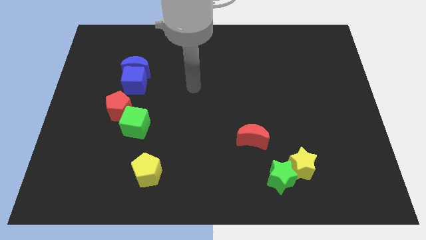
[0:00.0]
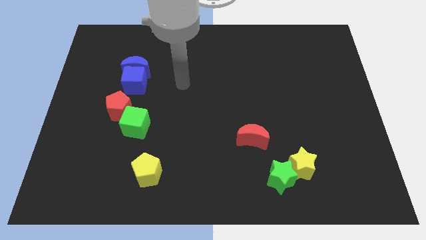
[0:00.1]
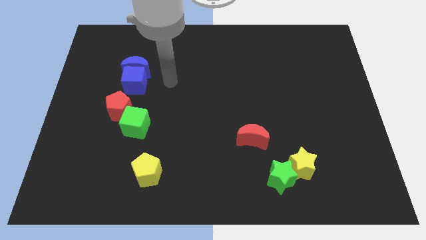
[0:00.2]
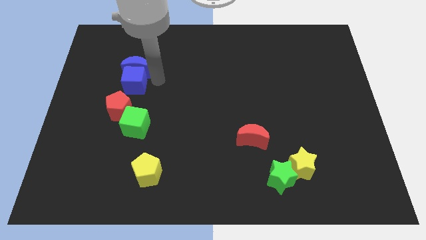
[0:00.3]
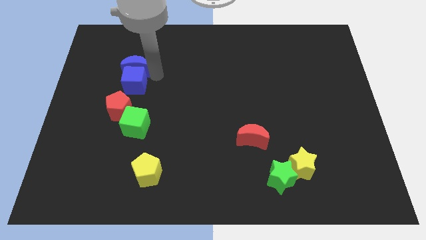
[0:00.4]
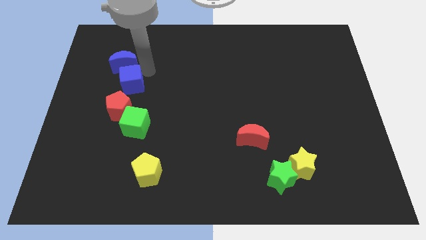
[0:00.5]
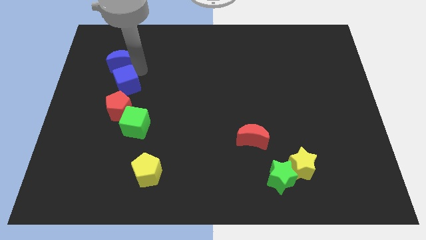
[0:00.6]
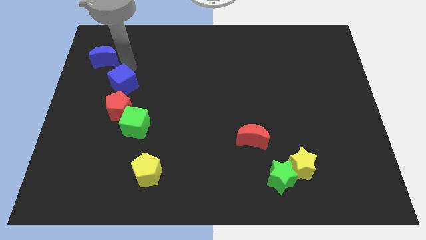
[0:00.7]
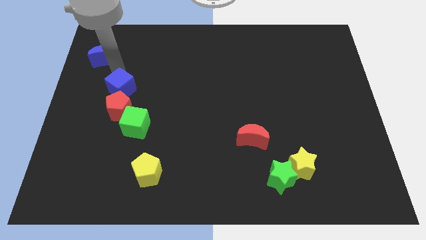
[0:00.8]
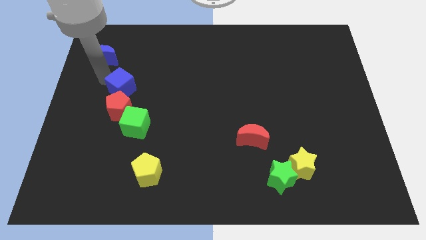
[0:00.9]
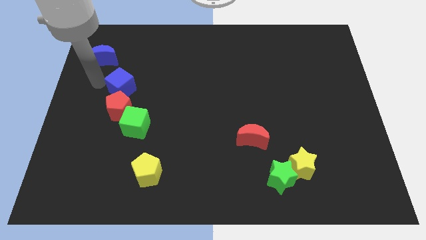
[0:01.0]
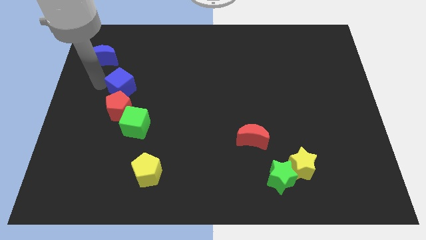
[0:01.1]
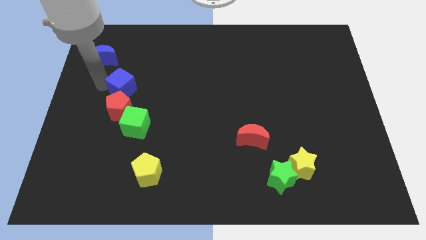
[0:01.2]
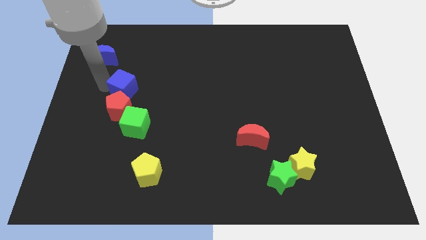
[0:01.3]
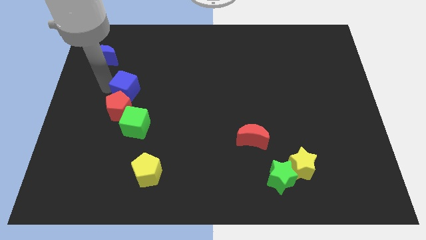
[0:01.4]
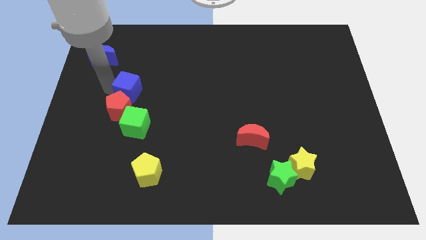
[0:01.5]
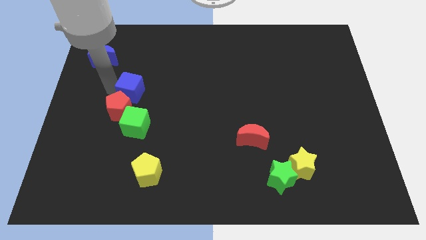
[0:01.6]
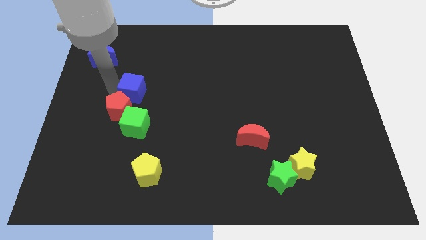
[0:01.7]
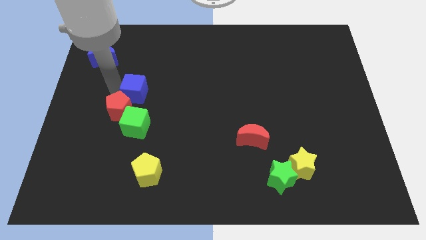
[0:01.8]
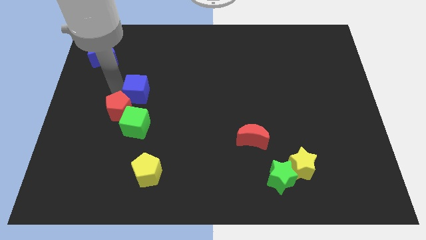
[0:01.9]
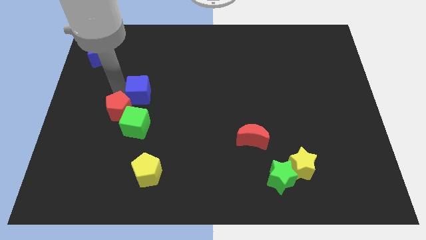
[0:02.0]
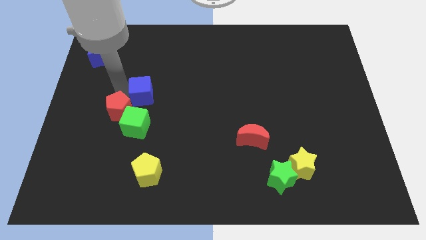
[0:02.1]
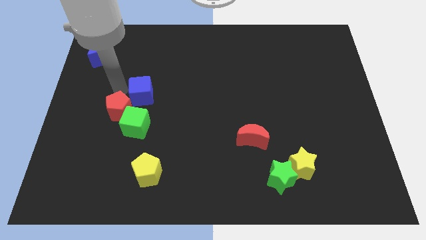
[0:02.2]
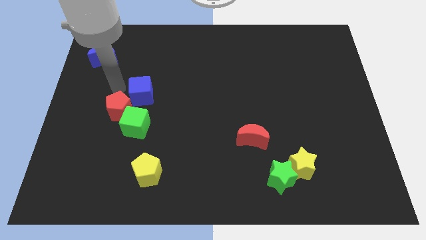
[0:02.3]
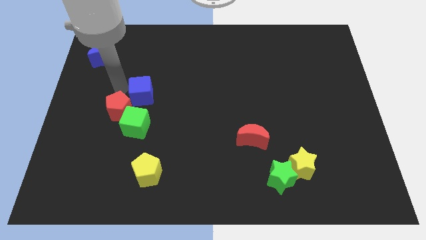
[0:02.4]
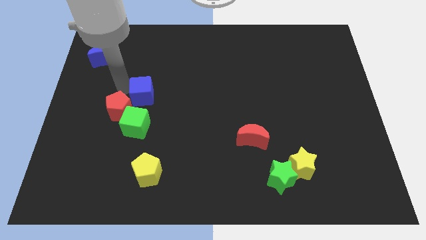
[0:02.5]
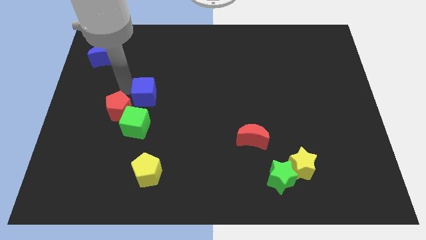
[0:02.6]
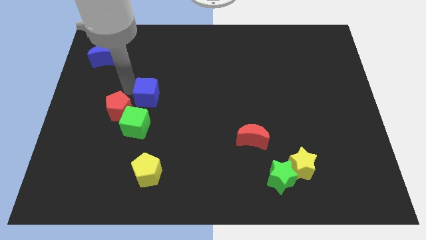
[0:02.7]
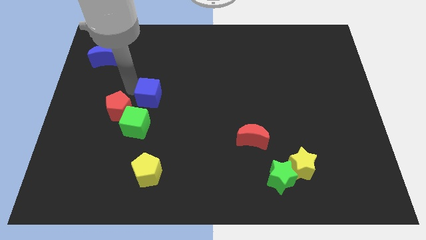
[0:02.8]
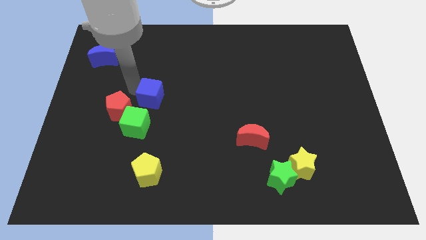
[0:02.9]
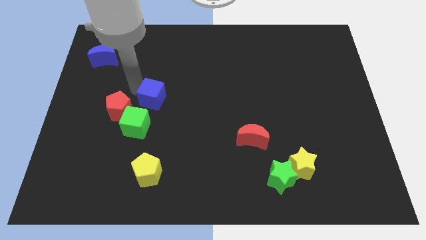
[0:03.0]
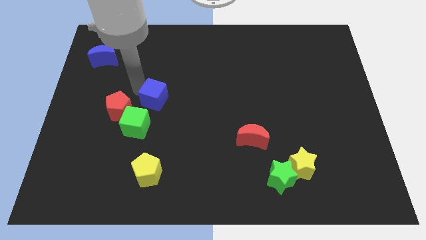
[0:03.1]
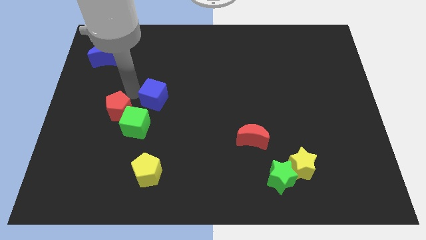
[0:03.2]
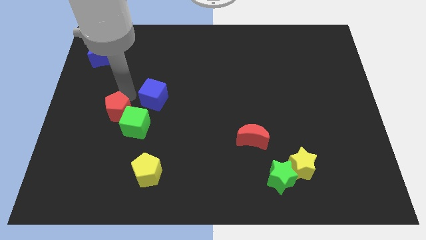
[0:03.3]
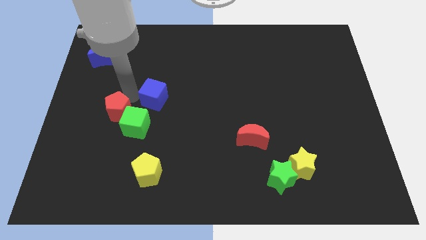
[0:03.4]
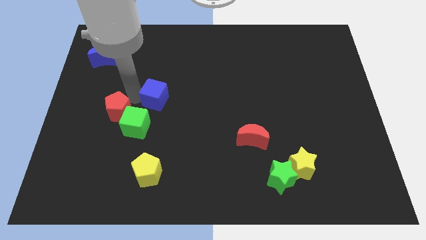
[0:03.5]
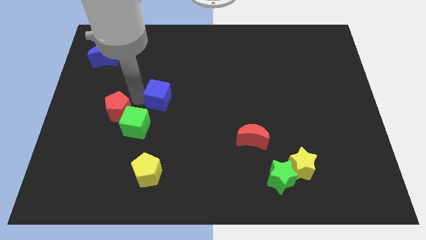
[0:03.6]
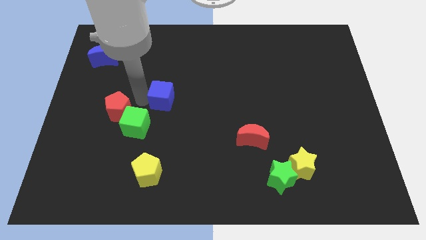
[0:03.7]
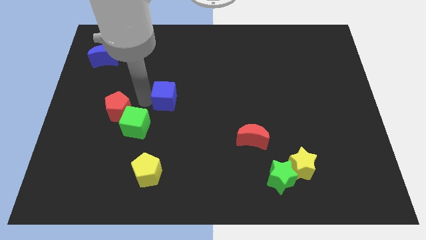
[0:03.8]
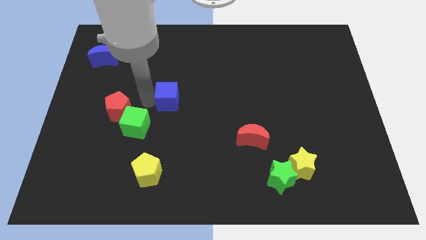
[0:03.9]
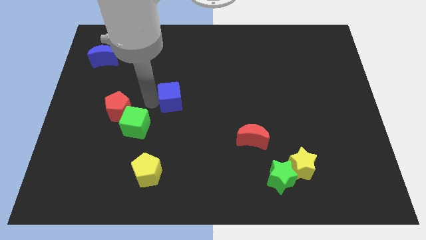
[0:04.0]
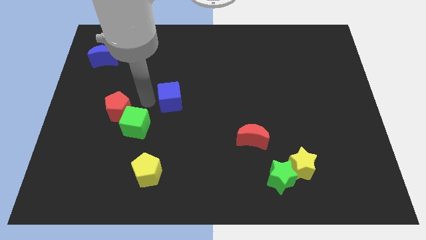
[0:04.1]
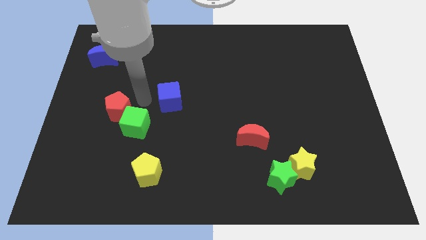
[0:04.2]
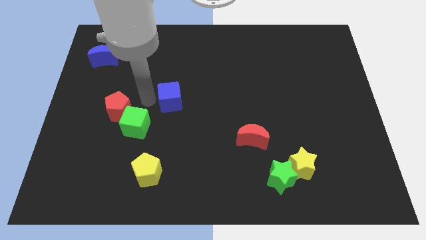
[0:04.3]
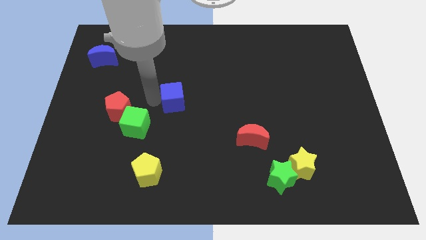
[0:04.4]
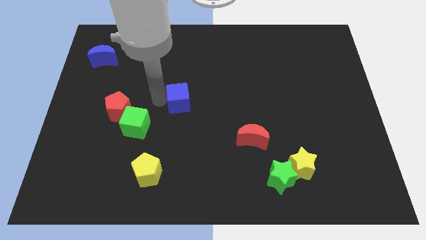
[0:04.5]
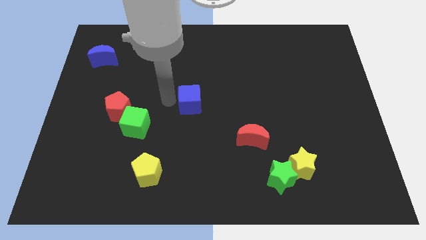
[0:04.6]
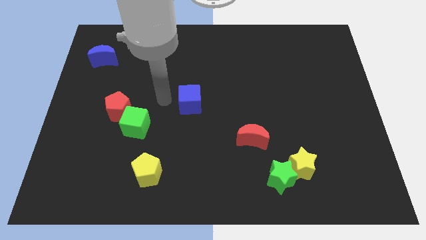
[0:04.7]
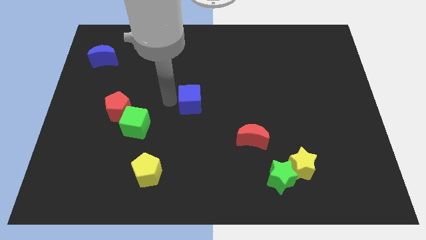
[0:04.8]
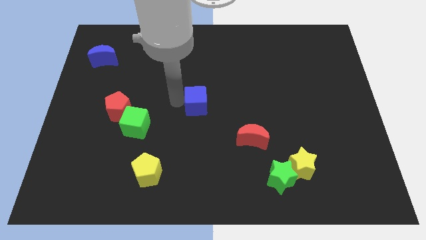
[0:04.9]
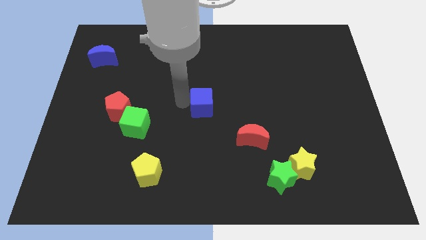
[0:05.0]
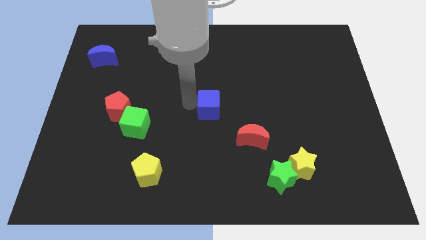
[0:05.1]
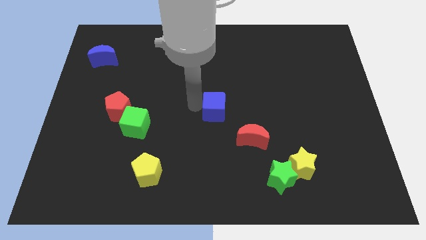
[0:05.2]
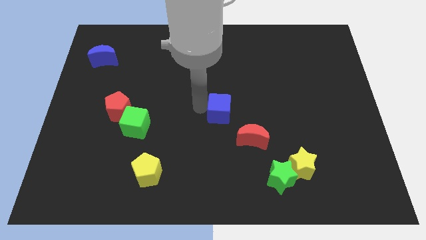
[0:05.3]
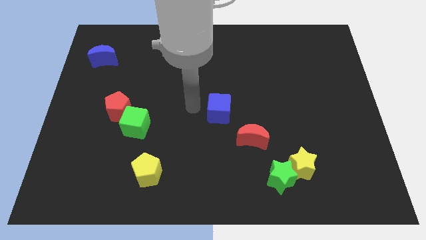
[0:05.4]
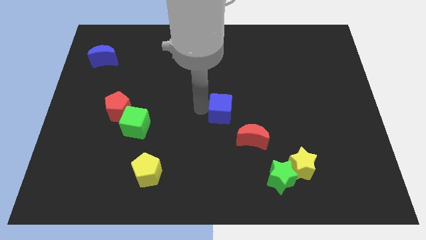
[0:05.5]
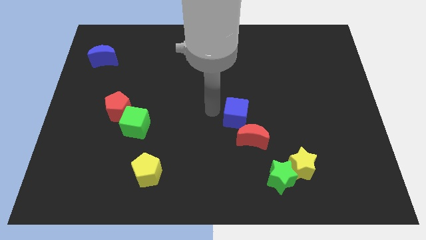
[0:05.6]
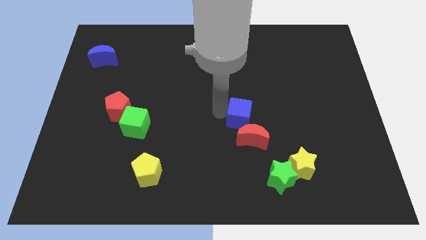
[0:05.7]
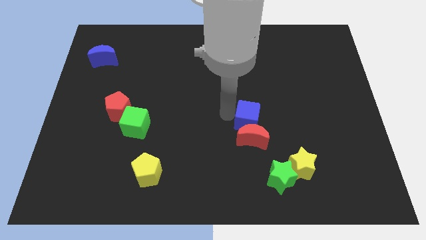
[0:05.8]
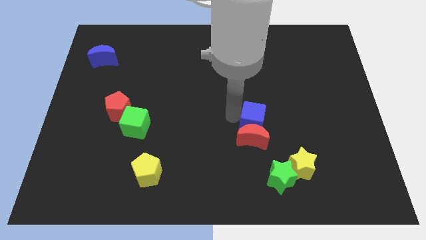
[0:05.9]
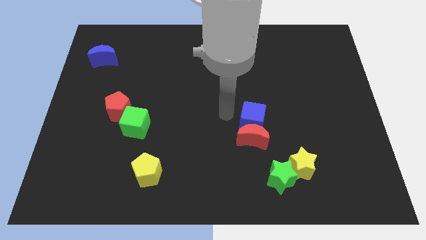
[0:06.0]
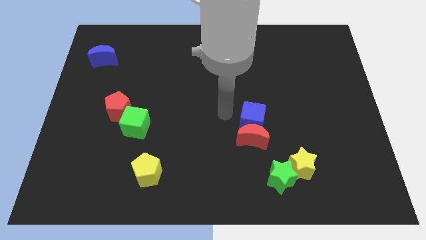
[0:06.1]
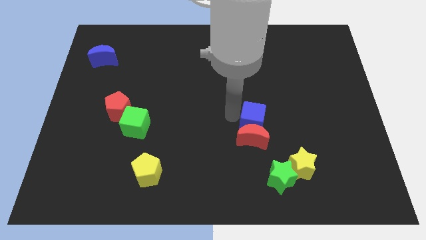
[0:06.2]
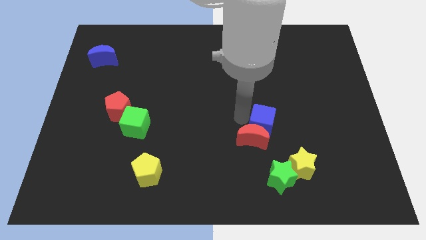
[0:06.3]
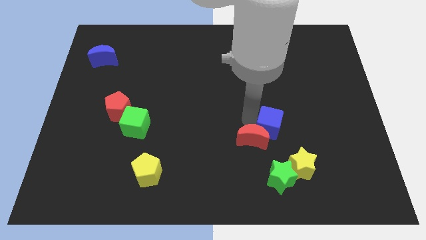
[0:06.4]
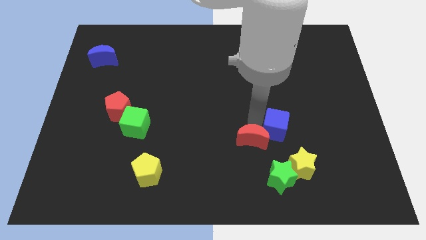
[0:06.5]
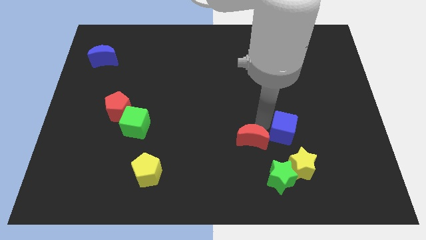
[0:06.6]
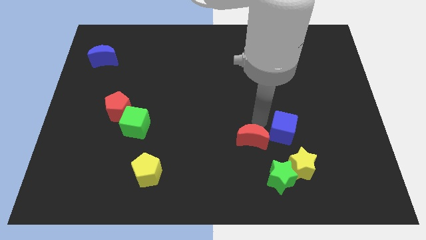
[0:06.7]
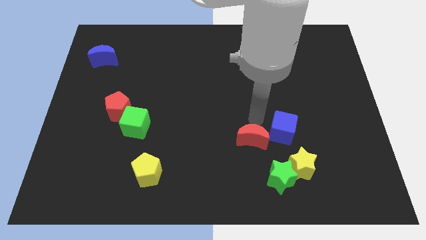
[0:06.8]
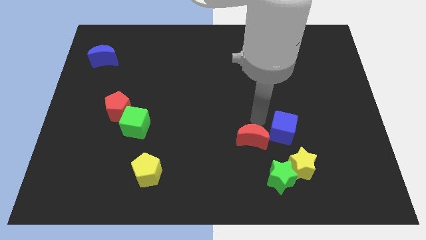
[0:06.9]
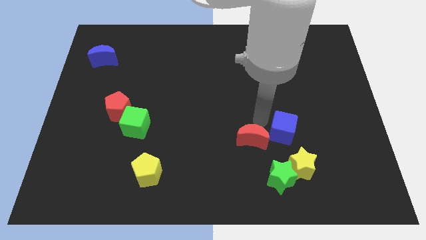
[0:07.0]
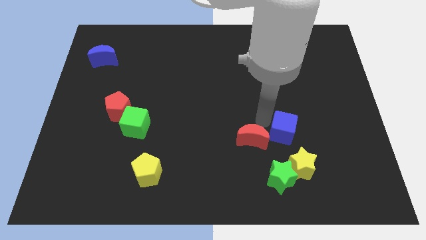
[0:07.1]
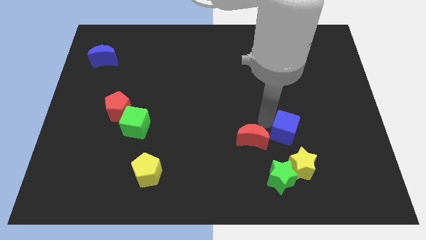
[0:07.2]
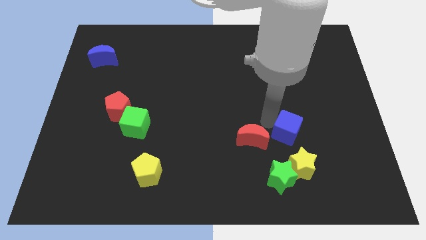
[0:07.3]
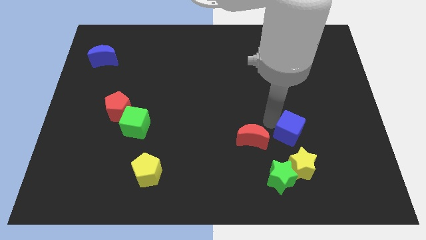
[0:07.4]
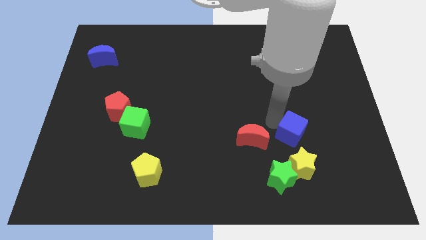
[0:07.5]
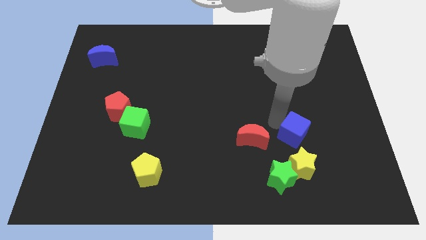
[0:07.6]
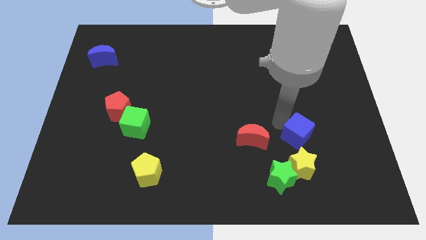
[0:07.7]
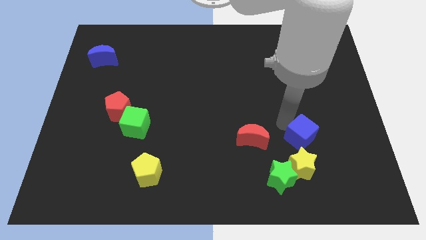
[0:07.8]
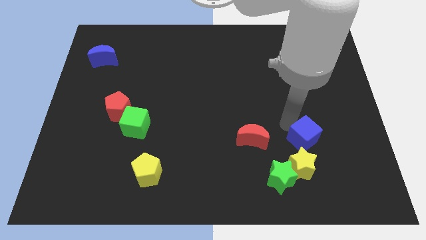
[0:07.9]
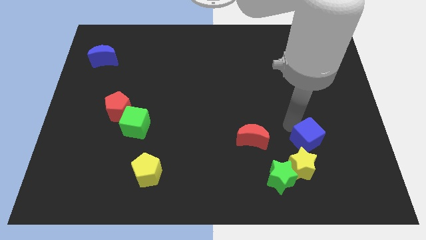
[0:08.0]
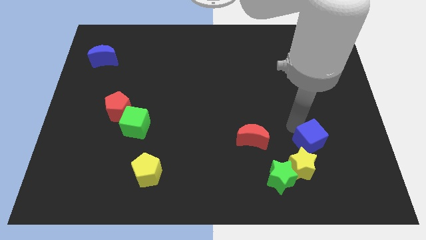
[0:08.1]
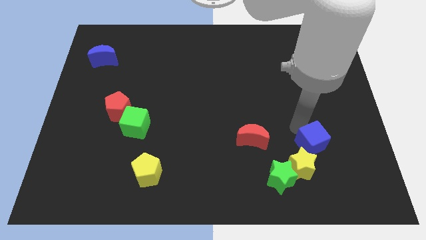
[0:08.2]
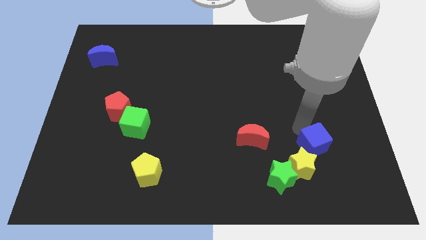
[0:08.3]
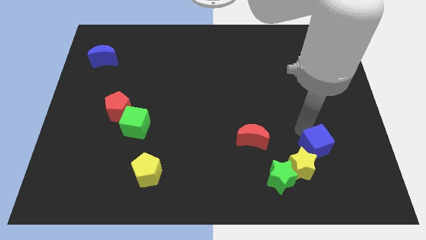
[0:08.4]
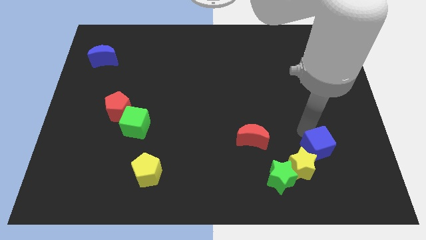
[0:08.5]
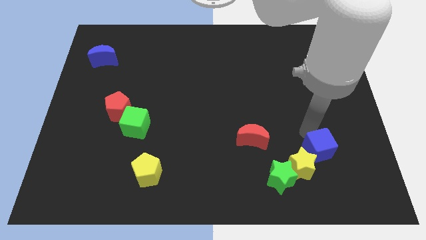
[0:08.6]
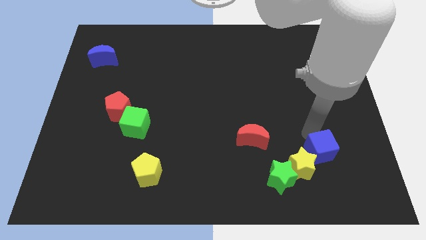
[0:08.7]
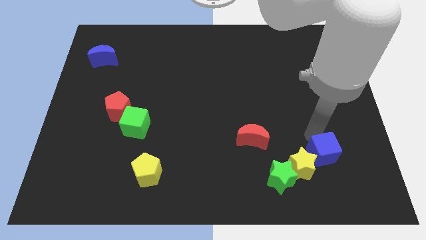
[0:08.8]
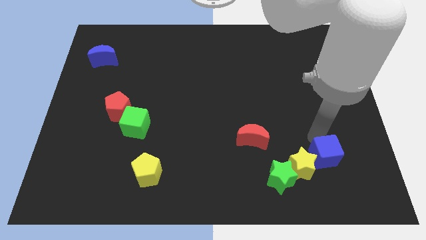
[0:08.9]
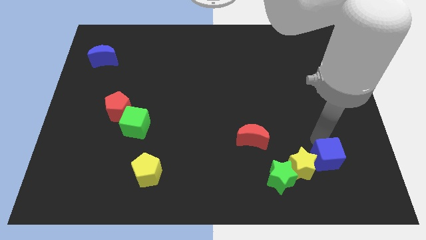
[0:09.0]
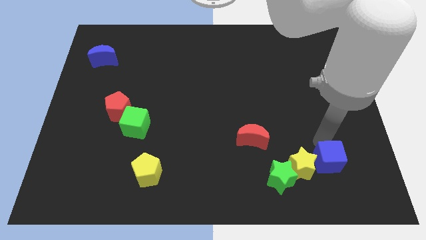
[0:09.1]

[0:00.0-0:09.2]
slide the blue cube just right of the green star
